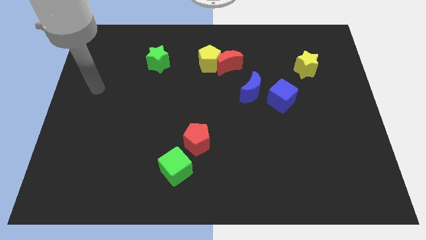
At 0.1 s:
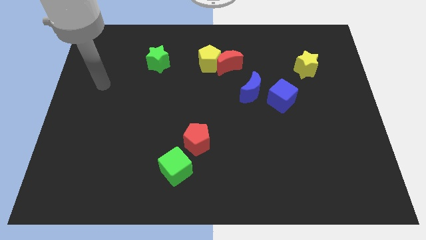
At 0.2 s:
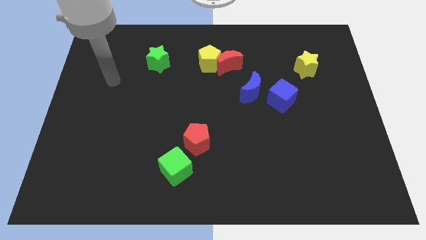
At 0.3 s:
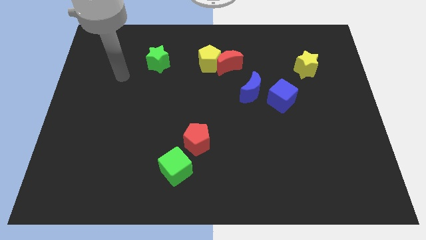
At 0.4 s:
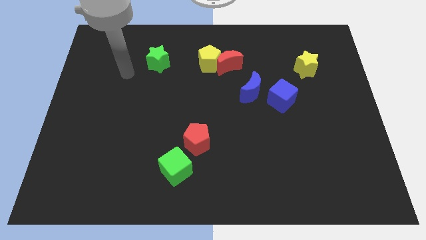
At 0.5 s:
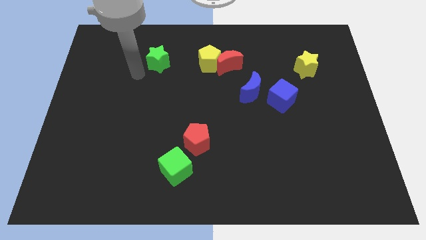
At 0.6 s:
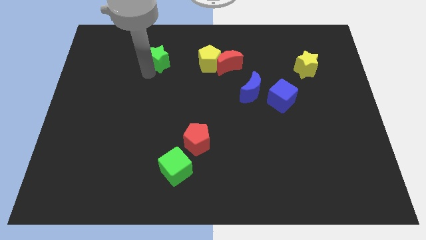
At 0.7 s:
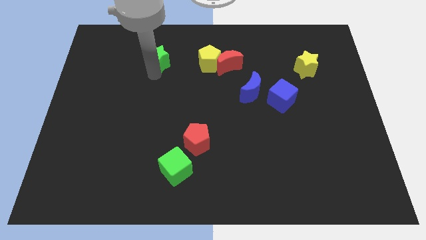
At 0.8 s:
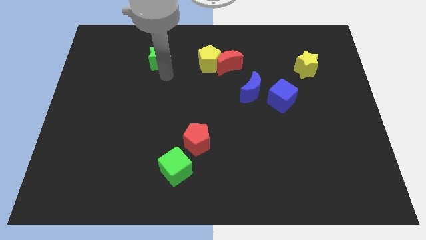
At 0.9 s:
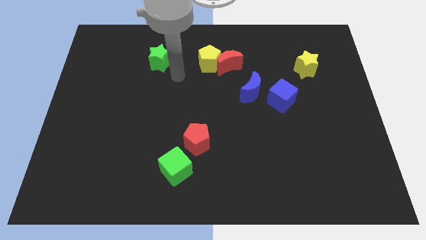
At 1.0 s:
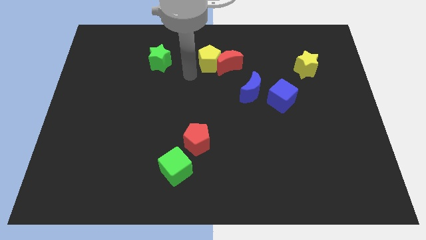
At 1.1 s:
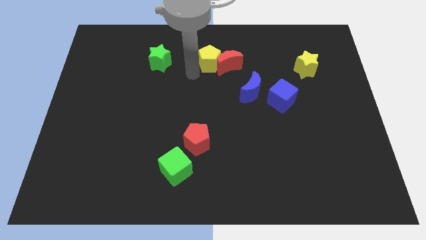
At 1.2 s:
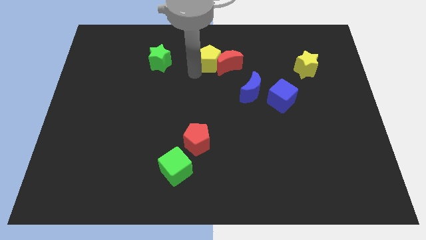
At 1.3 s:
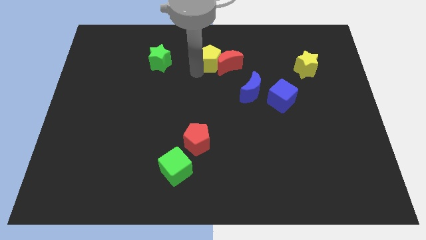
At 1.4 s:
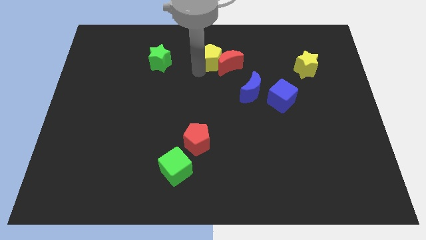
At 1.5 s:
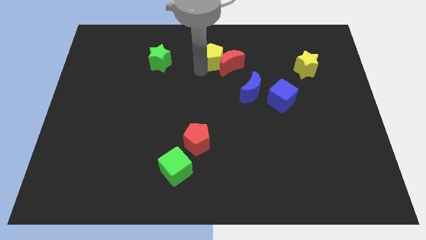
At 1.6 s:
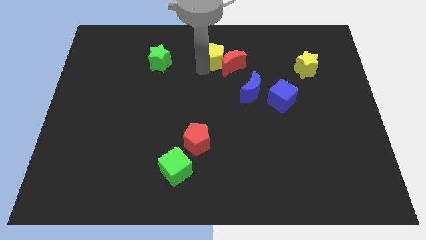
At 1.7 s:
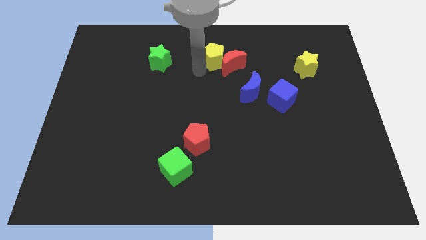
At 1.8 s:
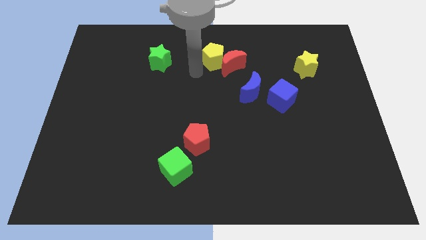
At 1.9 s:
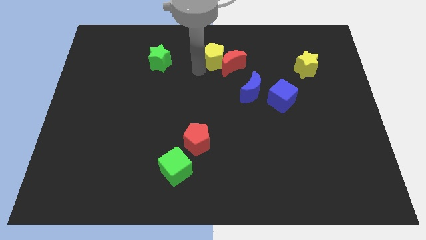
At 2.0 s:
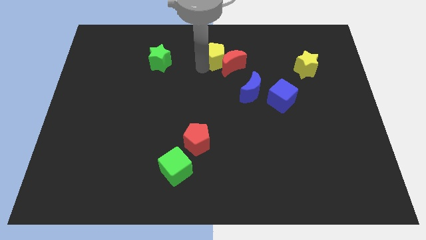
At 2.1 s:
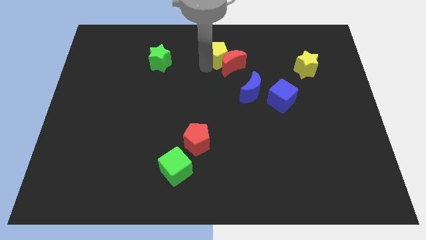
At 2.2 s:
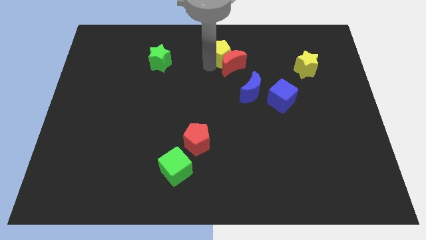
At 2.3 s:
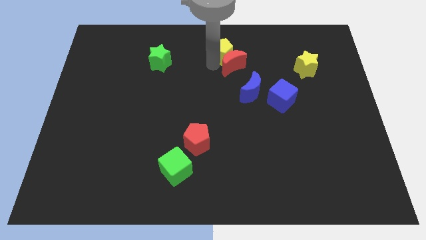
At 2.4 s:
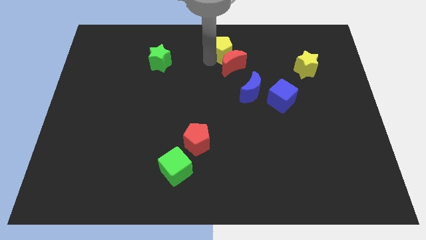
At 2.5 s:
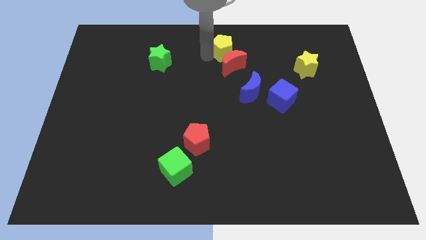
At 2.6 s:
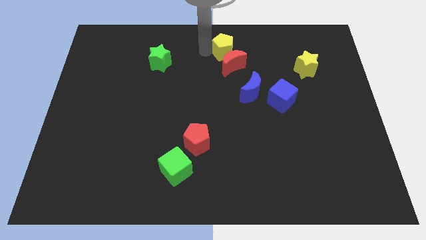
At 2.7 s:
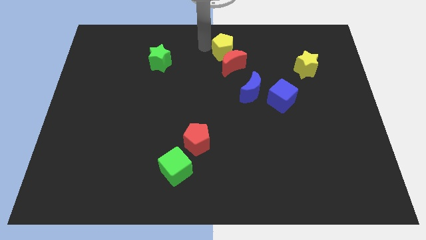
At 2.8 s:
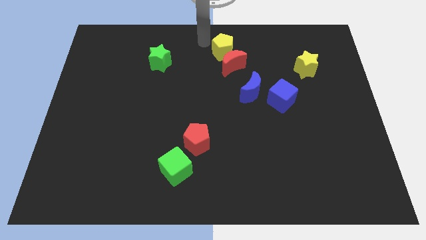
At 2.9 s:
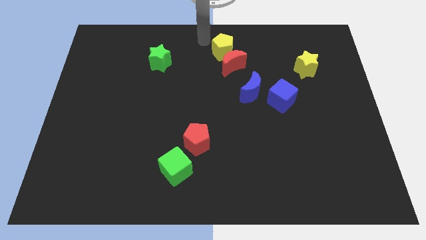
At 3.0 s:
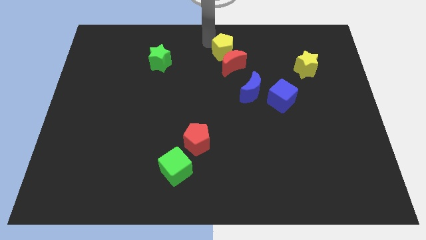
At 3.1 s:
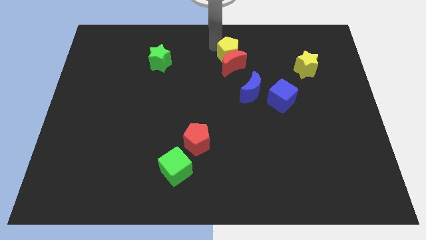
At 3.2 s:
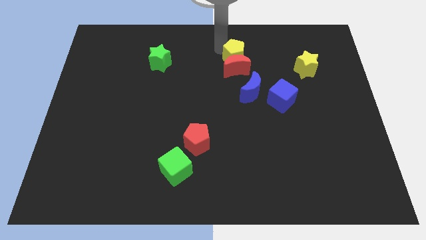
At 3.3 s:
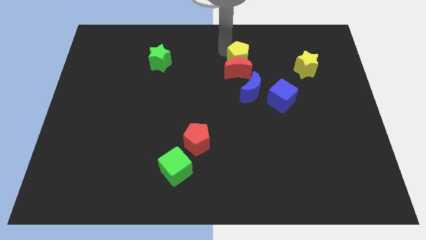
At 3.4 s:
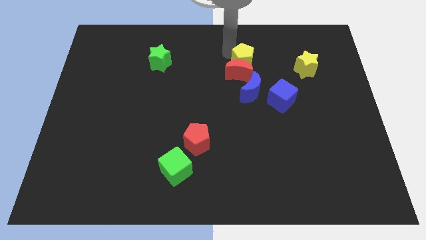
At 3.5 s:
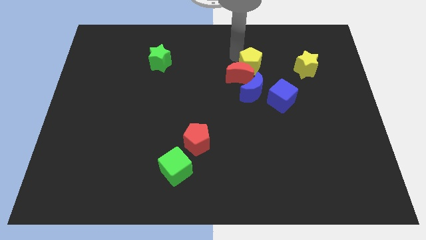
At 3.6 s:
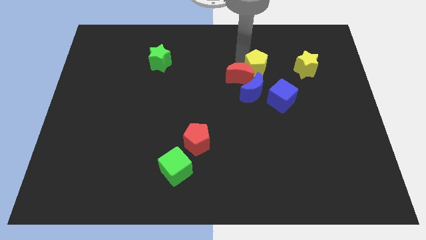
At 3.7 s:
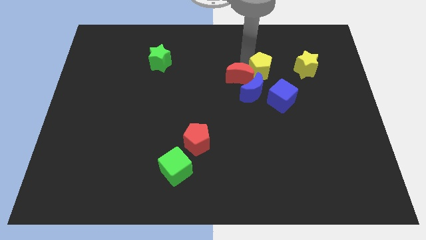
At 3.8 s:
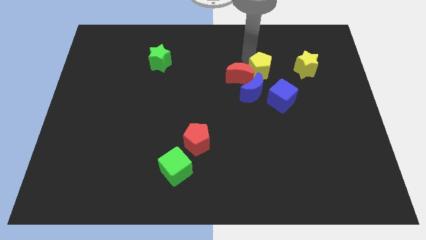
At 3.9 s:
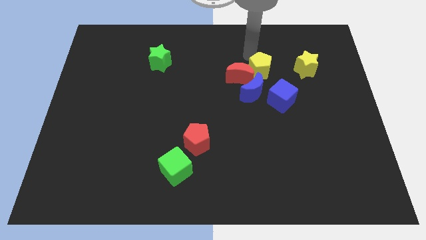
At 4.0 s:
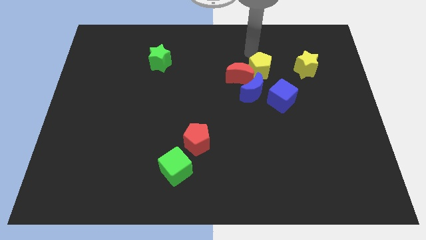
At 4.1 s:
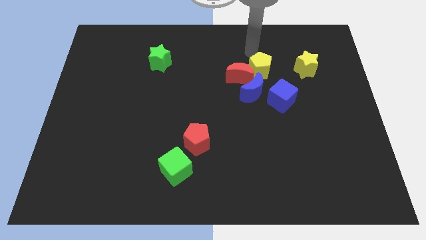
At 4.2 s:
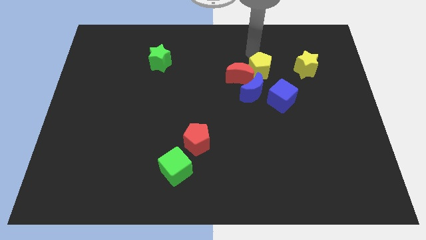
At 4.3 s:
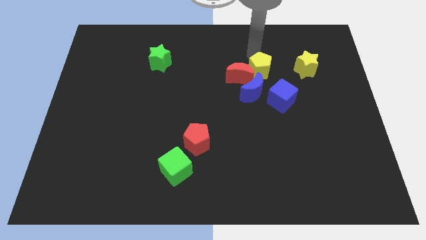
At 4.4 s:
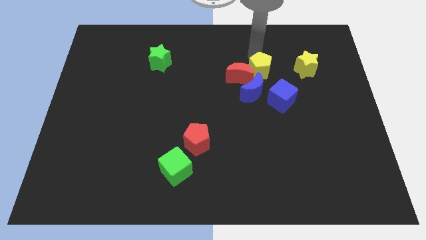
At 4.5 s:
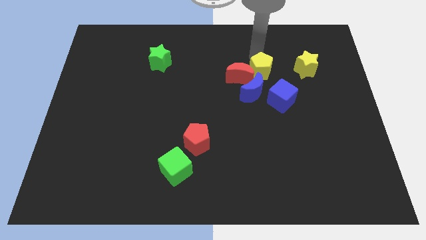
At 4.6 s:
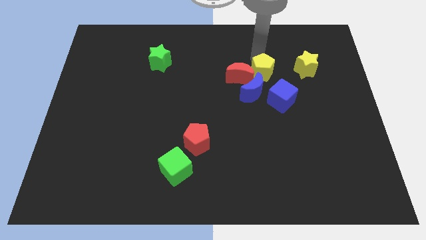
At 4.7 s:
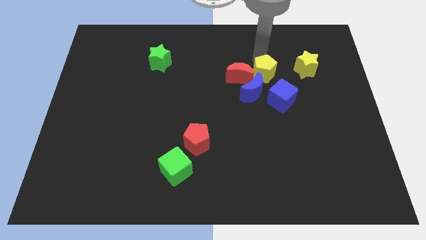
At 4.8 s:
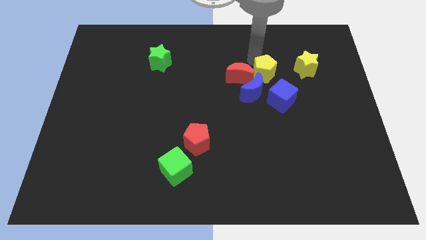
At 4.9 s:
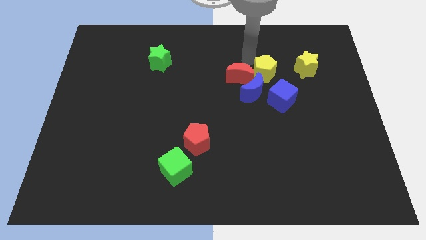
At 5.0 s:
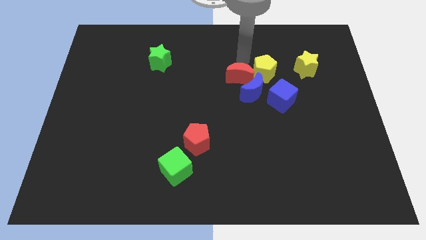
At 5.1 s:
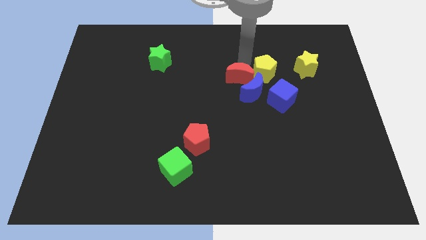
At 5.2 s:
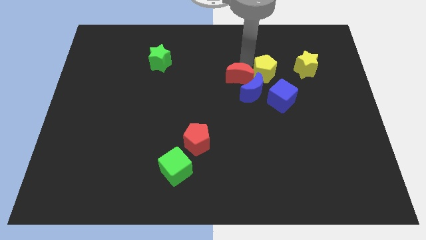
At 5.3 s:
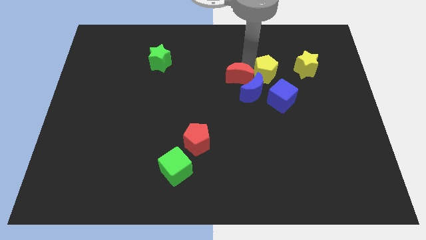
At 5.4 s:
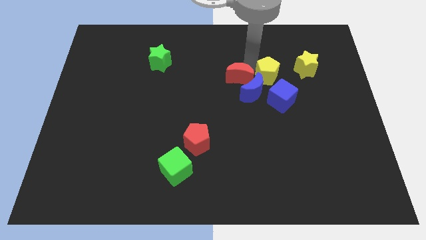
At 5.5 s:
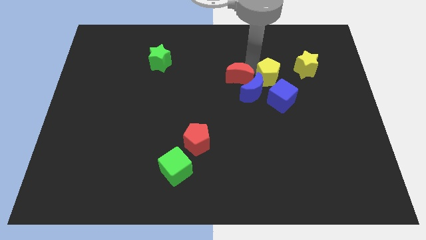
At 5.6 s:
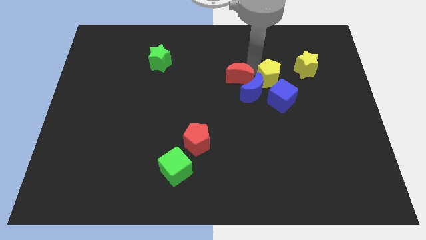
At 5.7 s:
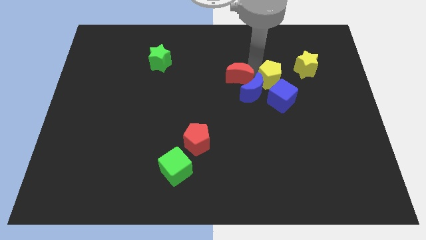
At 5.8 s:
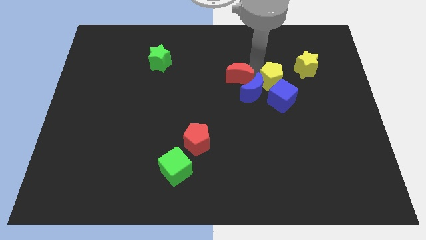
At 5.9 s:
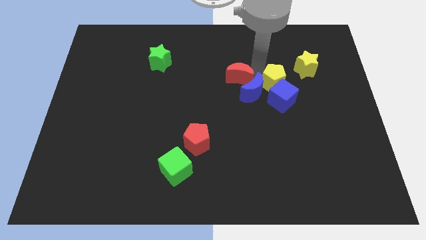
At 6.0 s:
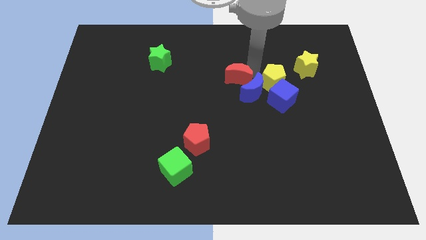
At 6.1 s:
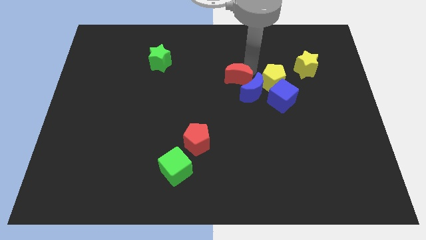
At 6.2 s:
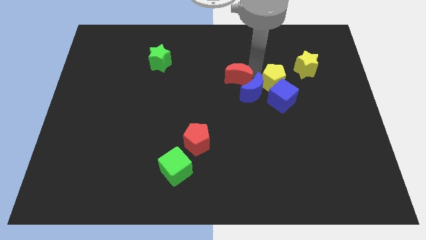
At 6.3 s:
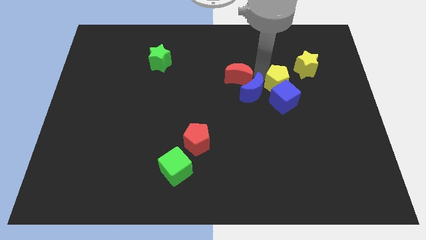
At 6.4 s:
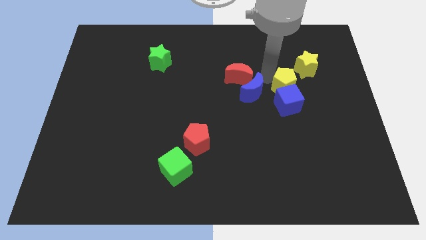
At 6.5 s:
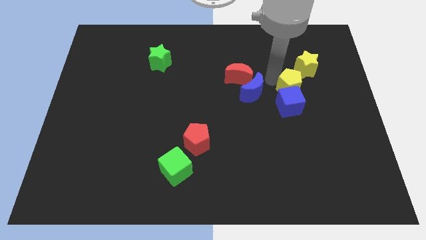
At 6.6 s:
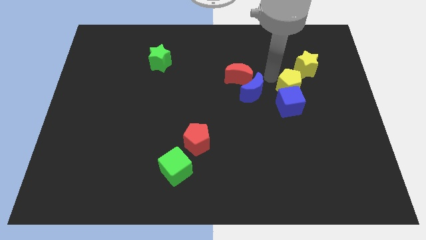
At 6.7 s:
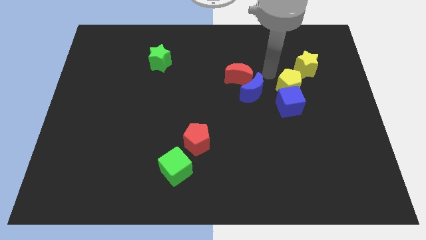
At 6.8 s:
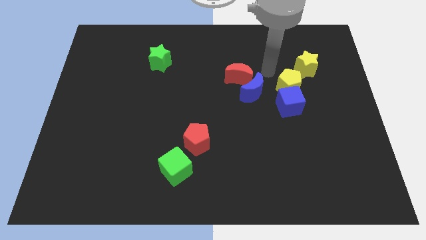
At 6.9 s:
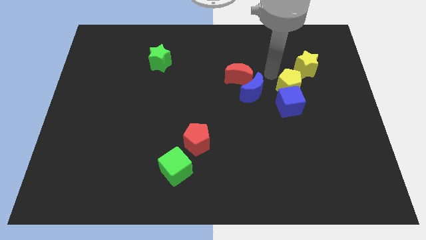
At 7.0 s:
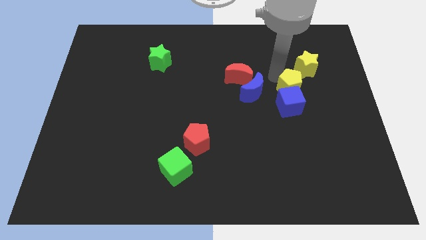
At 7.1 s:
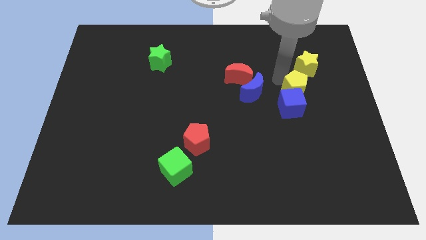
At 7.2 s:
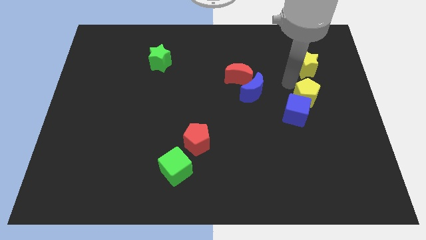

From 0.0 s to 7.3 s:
push the yellow pentagon down and to the right

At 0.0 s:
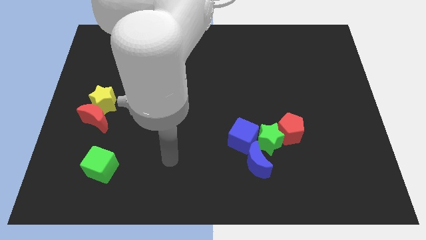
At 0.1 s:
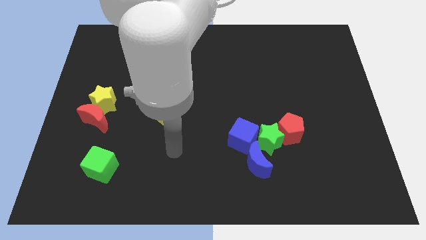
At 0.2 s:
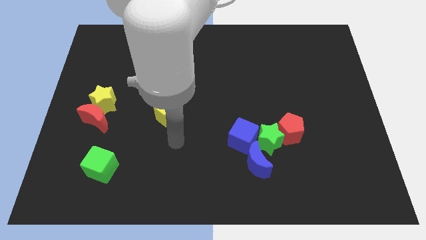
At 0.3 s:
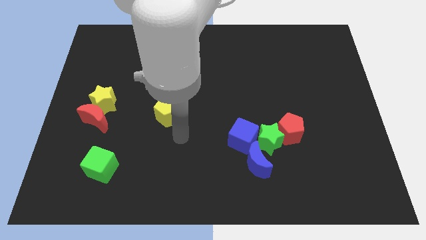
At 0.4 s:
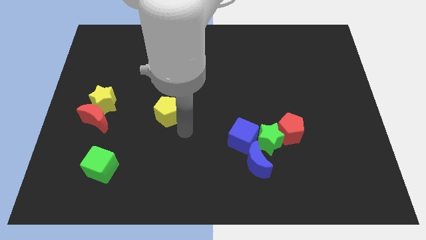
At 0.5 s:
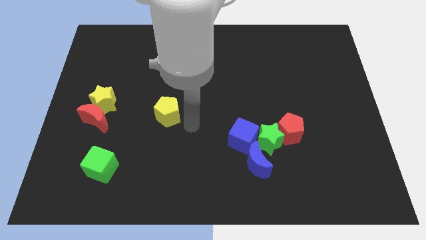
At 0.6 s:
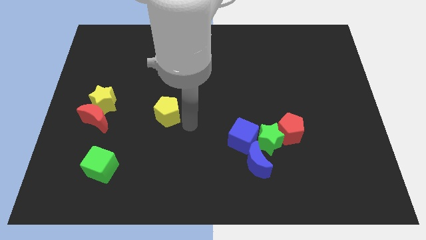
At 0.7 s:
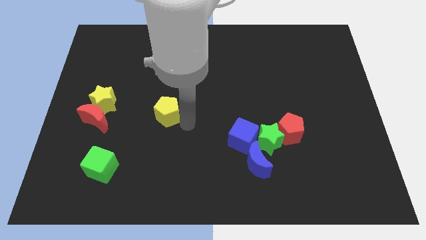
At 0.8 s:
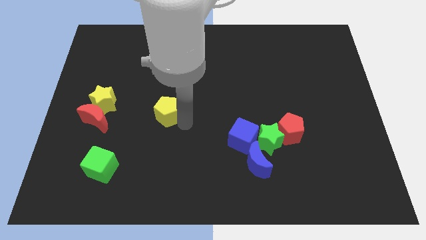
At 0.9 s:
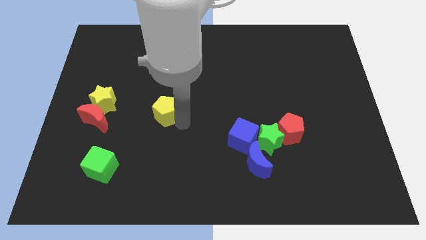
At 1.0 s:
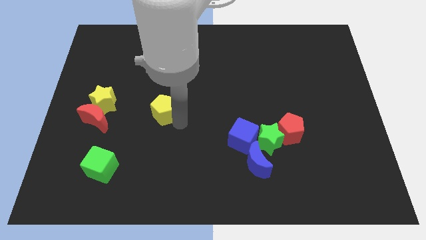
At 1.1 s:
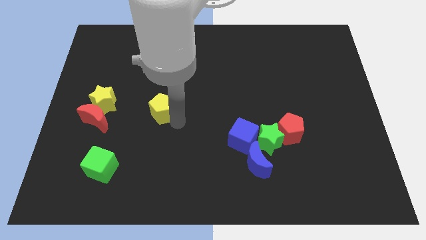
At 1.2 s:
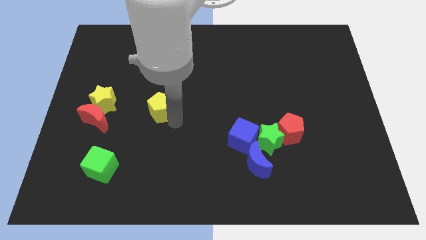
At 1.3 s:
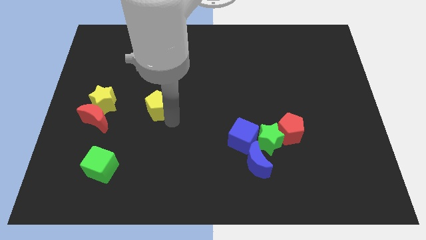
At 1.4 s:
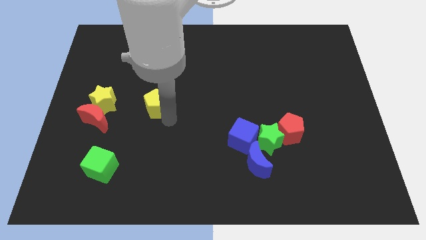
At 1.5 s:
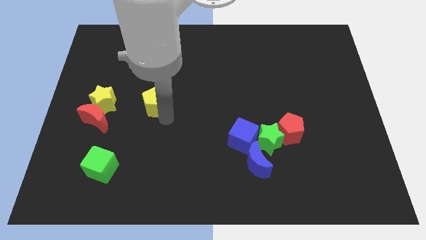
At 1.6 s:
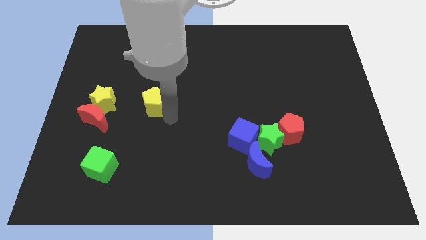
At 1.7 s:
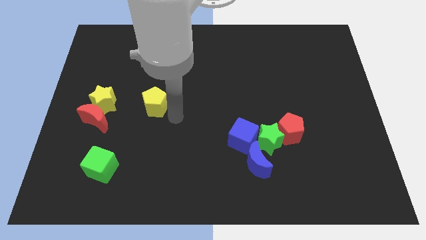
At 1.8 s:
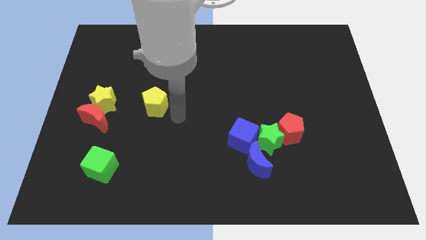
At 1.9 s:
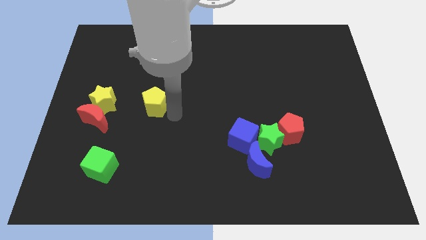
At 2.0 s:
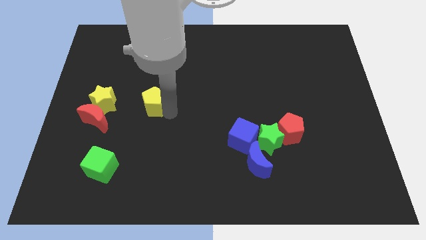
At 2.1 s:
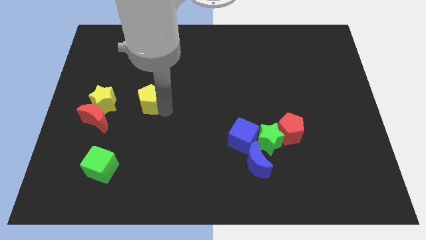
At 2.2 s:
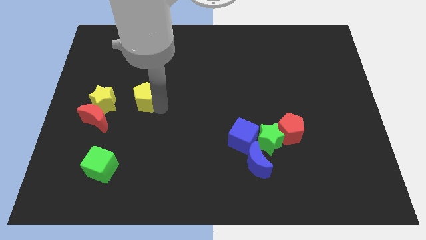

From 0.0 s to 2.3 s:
slightly slide the yellow pentagon upwards and to the left diagonally
